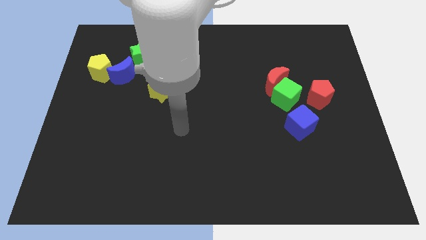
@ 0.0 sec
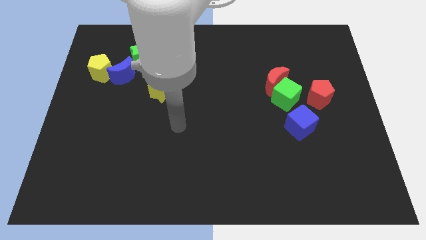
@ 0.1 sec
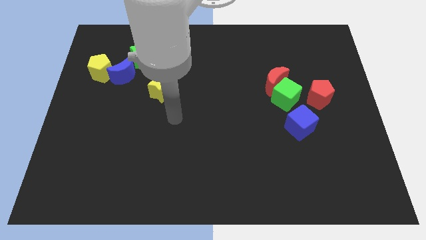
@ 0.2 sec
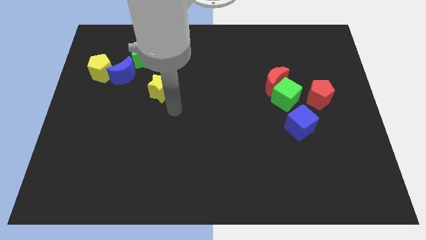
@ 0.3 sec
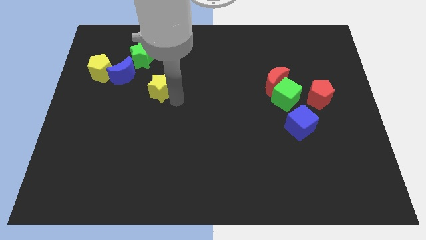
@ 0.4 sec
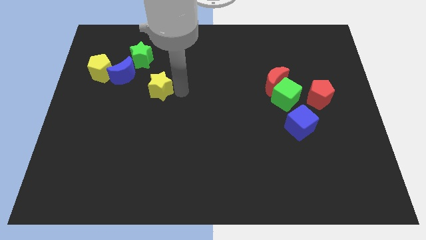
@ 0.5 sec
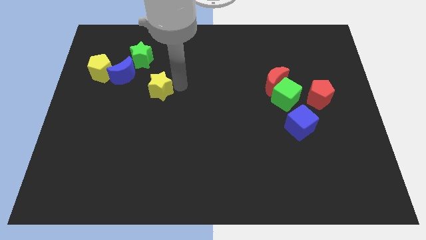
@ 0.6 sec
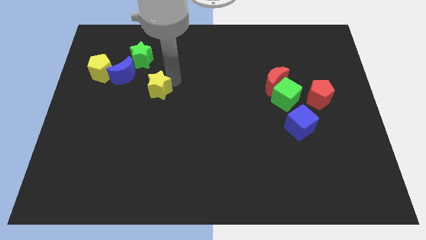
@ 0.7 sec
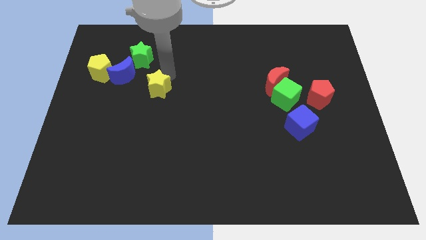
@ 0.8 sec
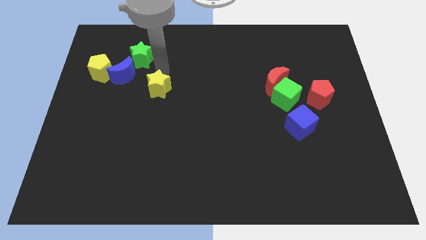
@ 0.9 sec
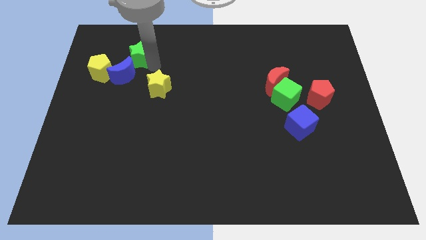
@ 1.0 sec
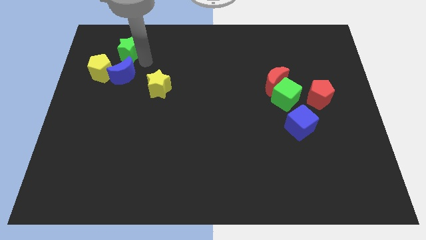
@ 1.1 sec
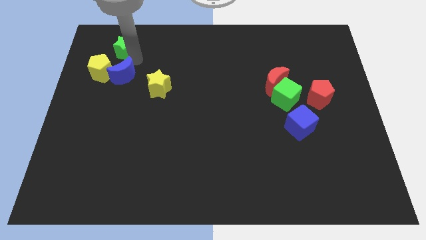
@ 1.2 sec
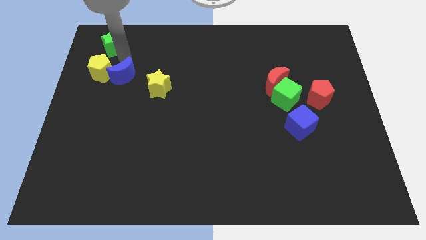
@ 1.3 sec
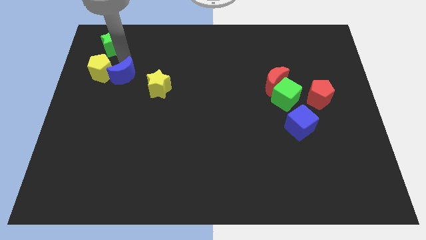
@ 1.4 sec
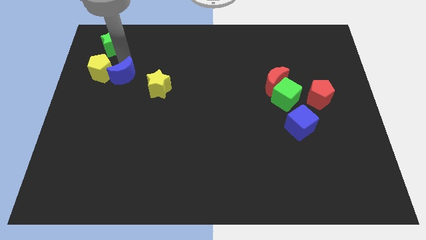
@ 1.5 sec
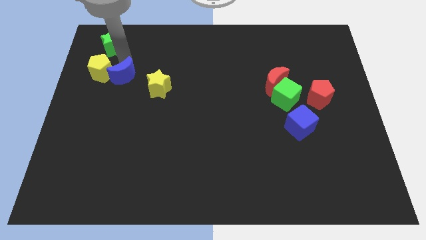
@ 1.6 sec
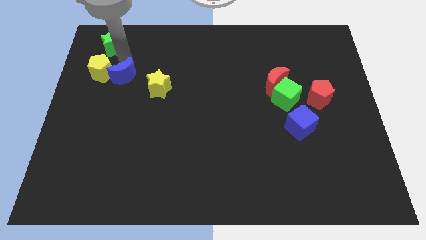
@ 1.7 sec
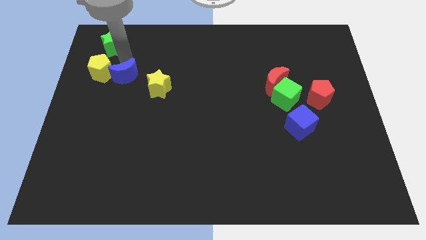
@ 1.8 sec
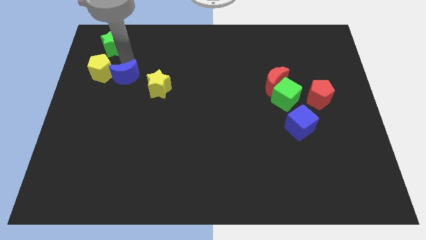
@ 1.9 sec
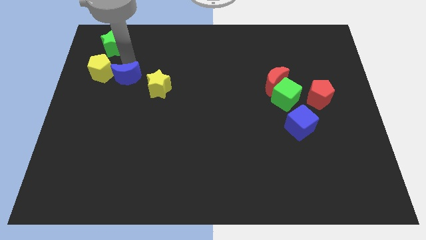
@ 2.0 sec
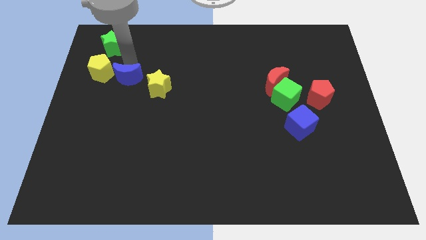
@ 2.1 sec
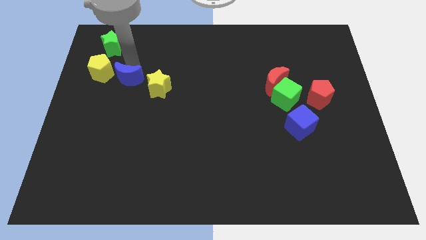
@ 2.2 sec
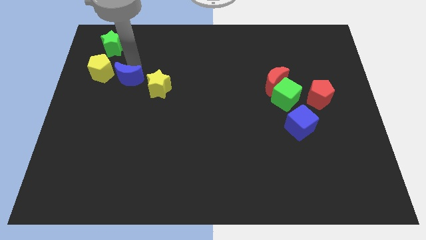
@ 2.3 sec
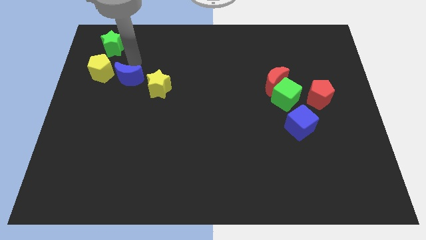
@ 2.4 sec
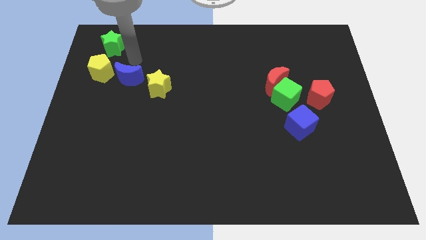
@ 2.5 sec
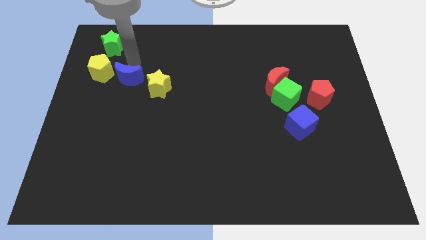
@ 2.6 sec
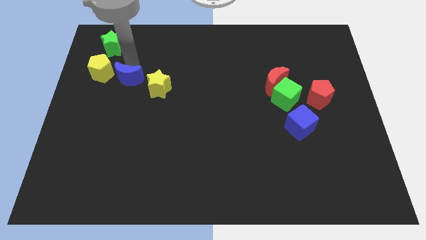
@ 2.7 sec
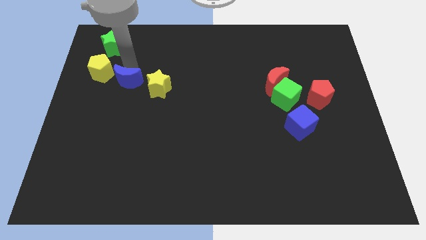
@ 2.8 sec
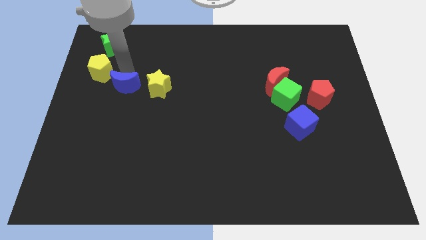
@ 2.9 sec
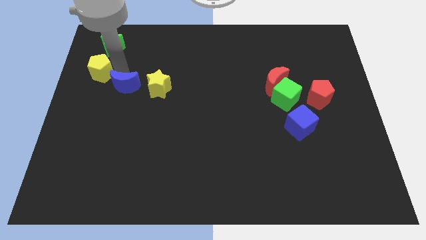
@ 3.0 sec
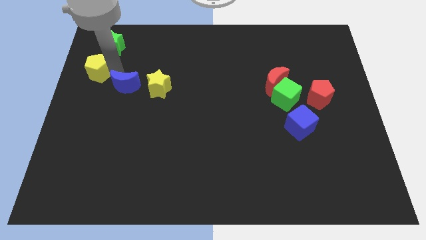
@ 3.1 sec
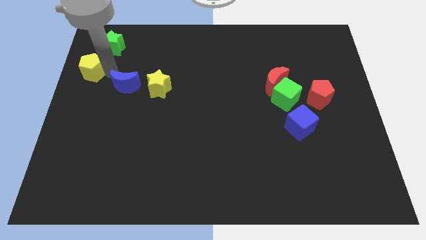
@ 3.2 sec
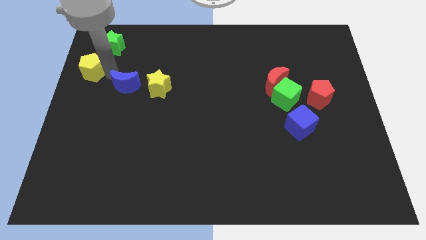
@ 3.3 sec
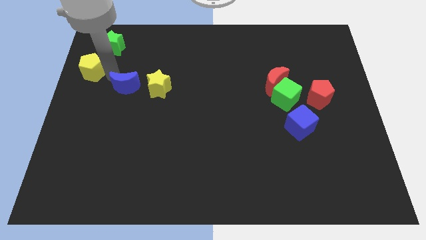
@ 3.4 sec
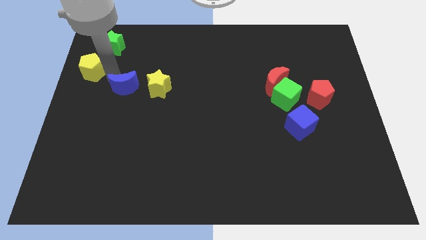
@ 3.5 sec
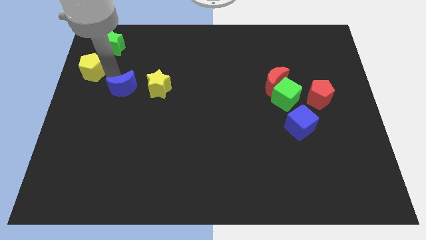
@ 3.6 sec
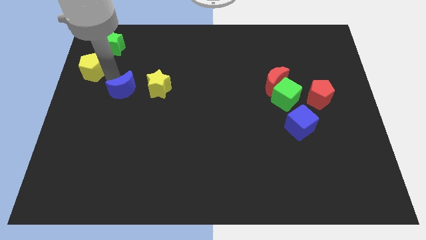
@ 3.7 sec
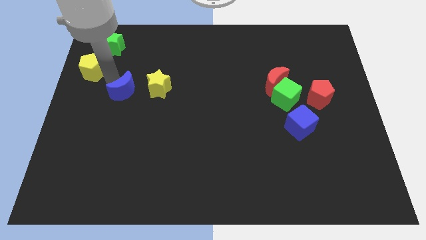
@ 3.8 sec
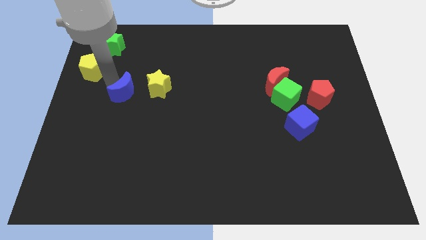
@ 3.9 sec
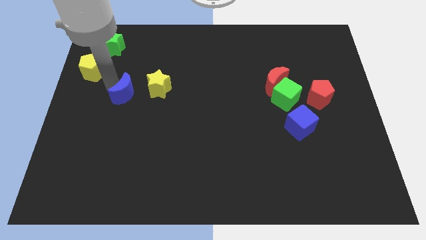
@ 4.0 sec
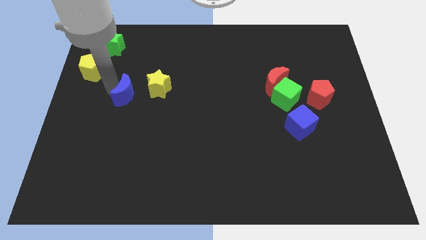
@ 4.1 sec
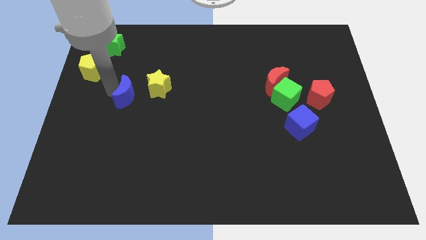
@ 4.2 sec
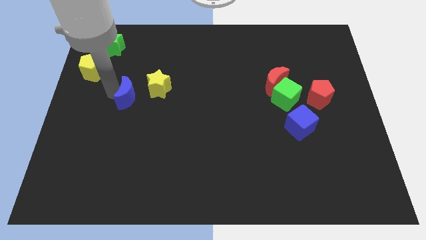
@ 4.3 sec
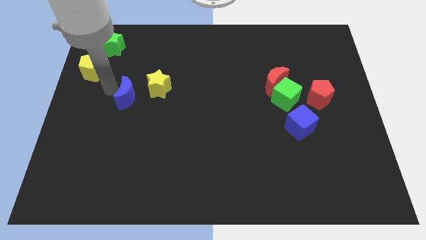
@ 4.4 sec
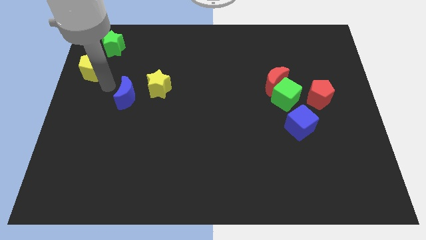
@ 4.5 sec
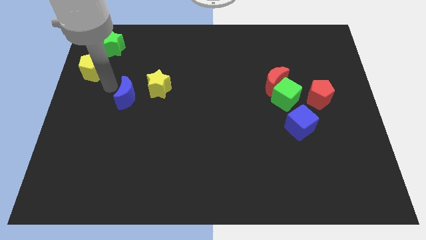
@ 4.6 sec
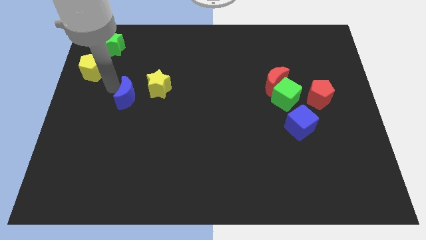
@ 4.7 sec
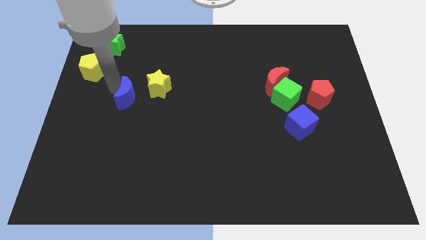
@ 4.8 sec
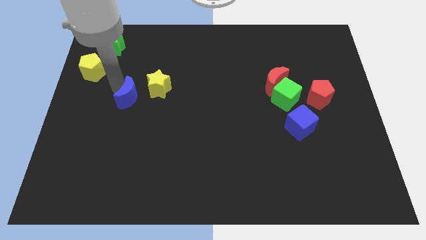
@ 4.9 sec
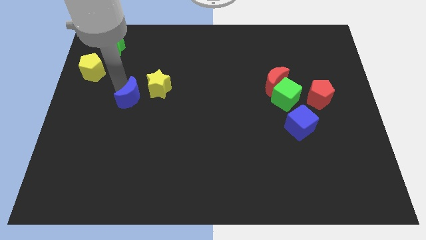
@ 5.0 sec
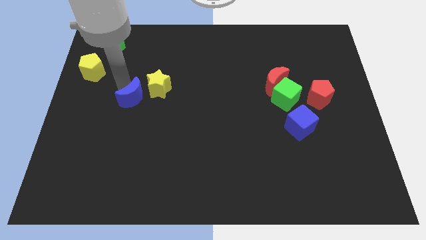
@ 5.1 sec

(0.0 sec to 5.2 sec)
slightly move the blue moon downwards and then to the right

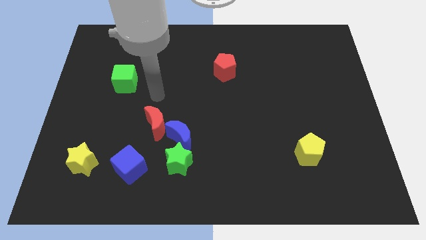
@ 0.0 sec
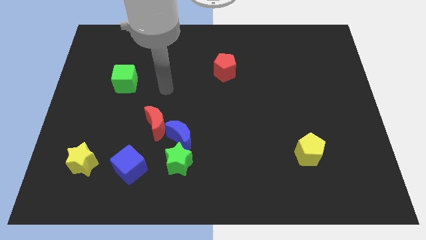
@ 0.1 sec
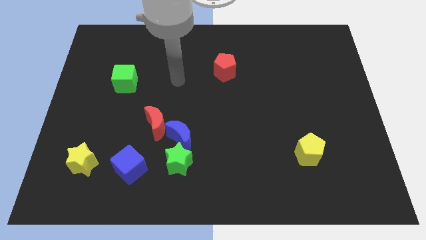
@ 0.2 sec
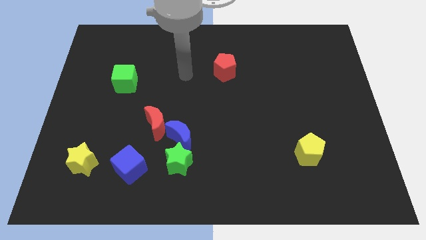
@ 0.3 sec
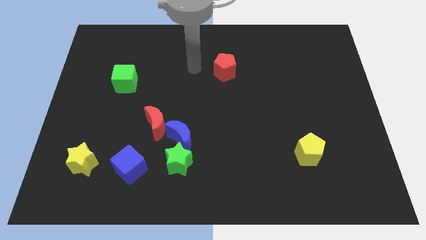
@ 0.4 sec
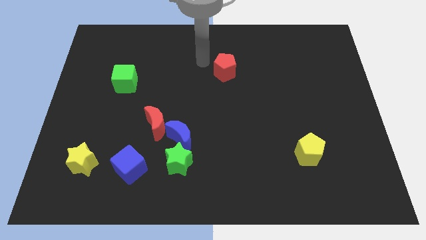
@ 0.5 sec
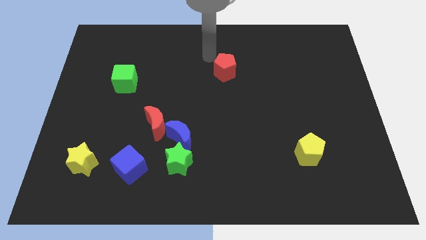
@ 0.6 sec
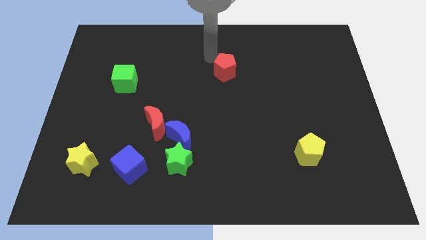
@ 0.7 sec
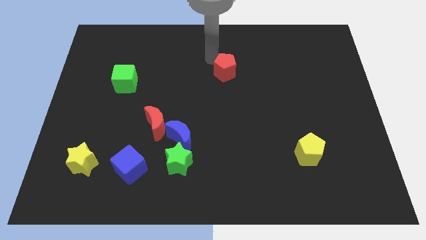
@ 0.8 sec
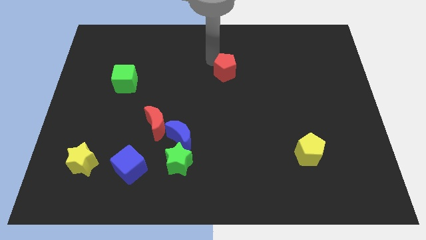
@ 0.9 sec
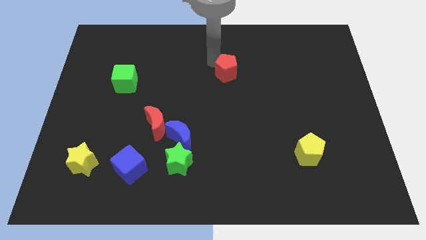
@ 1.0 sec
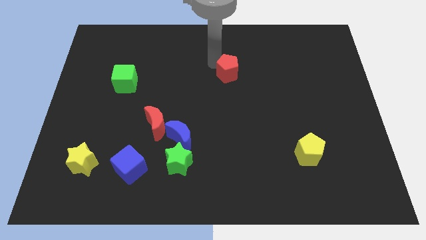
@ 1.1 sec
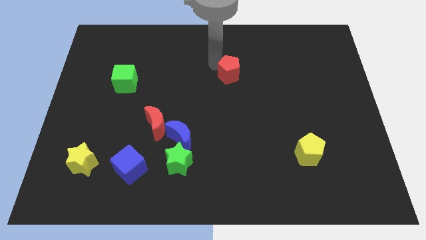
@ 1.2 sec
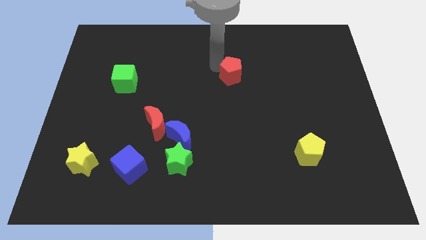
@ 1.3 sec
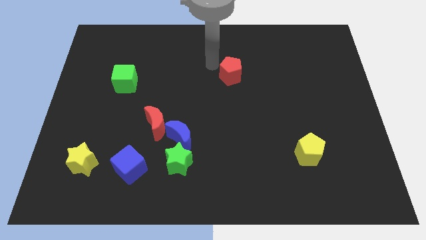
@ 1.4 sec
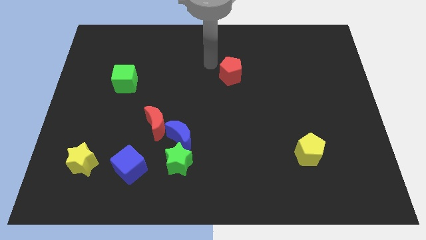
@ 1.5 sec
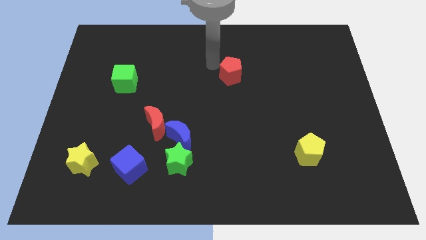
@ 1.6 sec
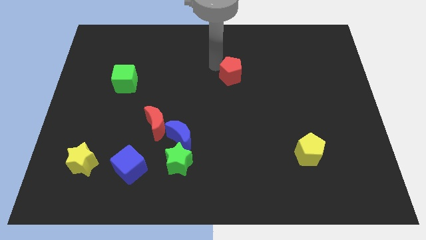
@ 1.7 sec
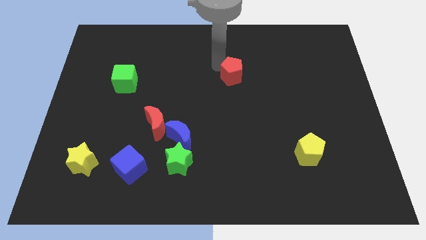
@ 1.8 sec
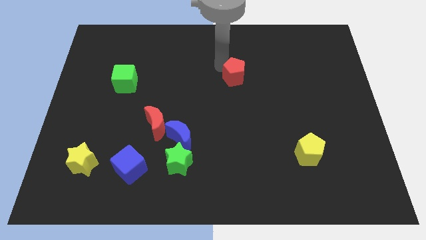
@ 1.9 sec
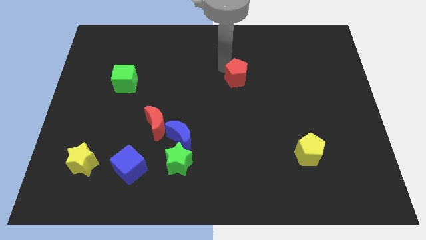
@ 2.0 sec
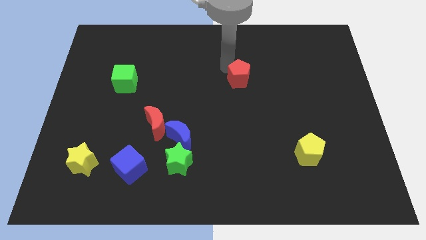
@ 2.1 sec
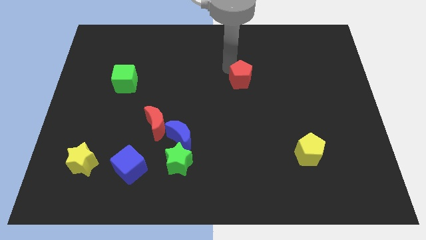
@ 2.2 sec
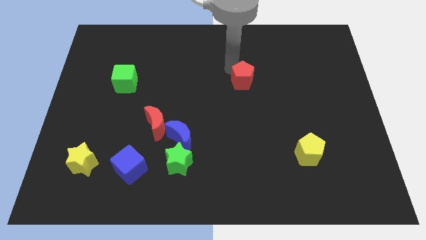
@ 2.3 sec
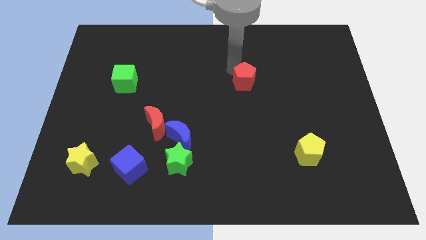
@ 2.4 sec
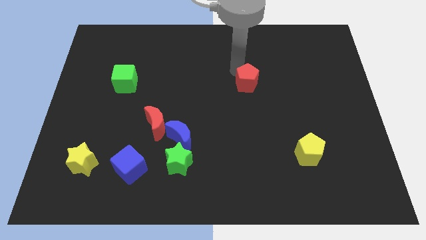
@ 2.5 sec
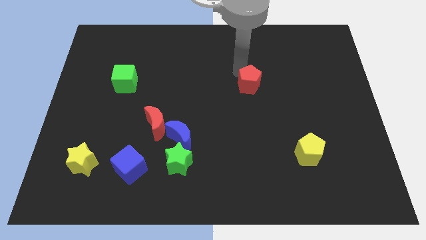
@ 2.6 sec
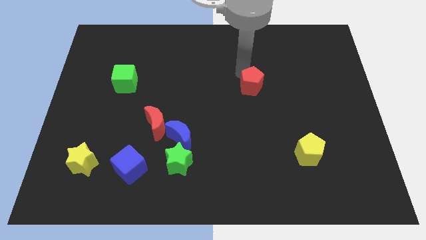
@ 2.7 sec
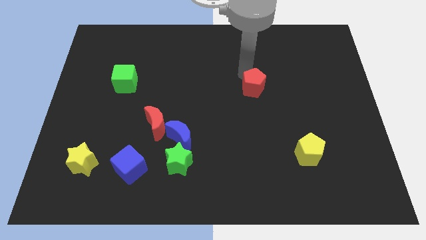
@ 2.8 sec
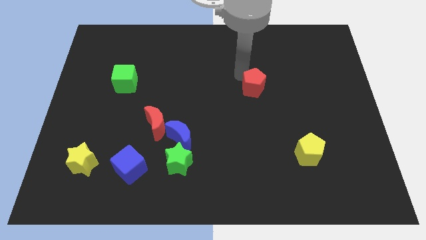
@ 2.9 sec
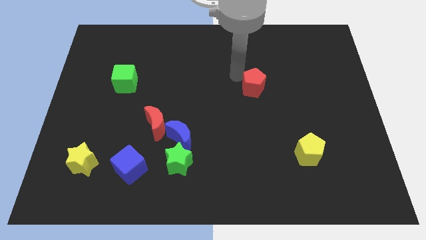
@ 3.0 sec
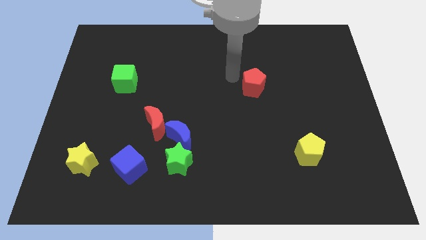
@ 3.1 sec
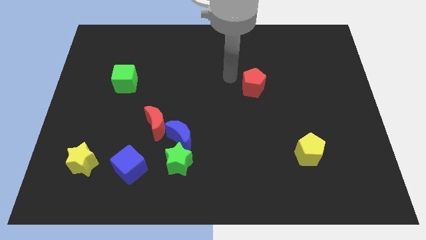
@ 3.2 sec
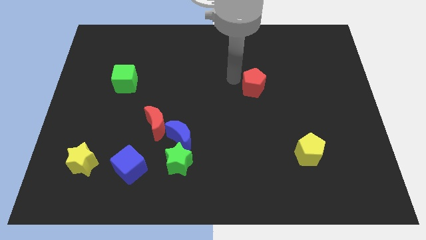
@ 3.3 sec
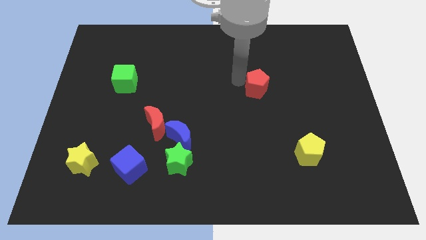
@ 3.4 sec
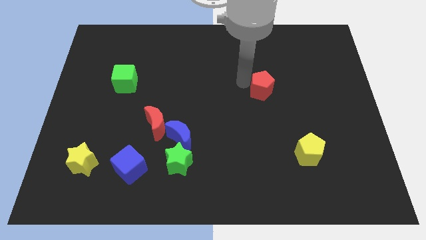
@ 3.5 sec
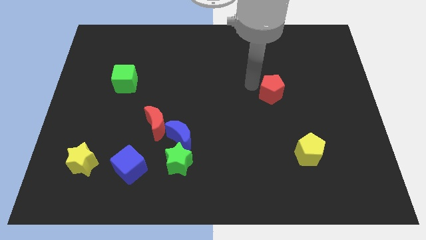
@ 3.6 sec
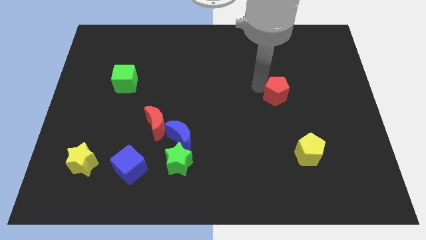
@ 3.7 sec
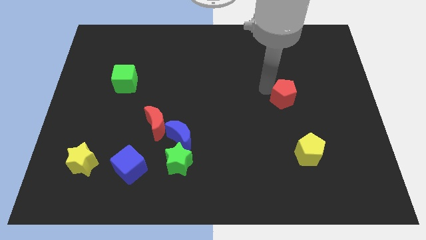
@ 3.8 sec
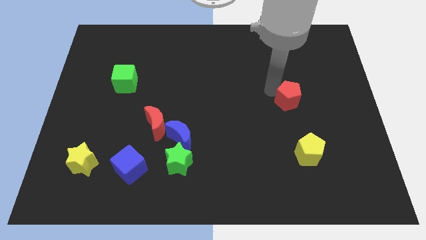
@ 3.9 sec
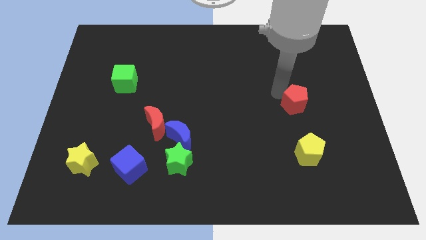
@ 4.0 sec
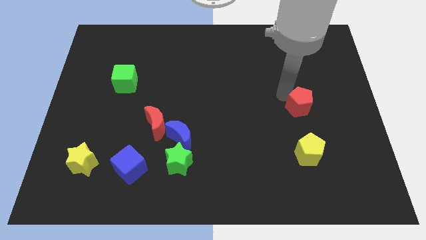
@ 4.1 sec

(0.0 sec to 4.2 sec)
slide the red pentagon down and right diagonally
